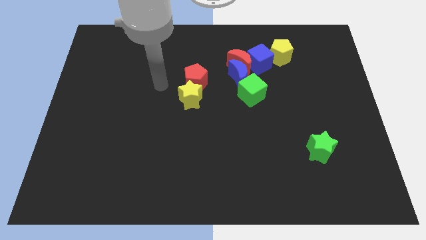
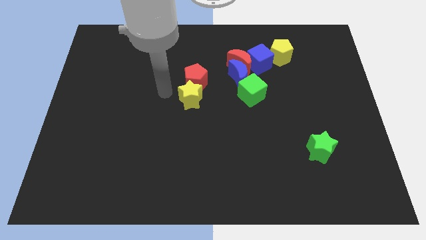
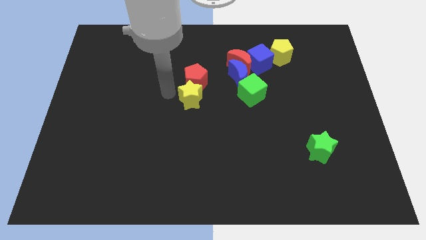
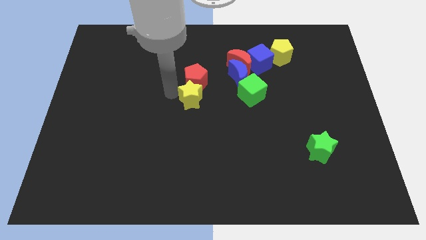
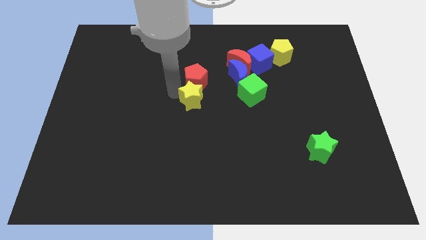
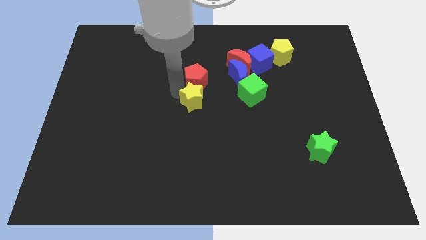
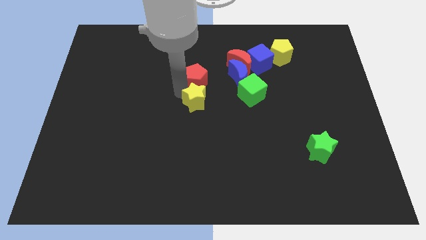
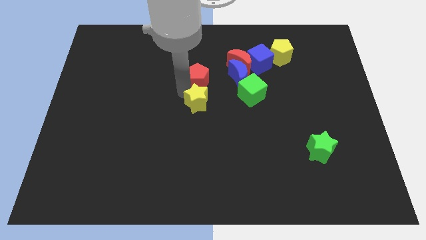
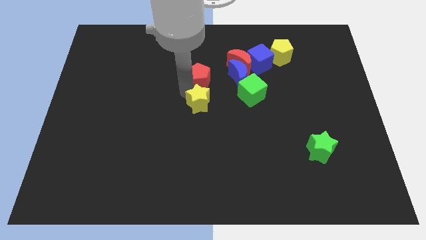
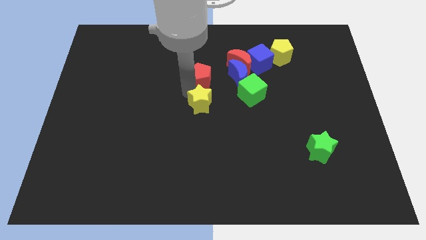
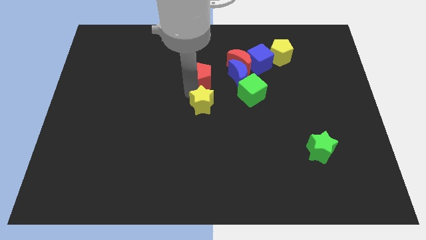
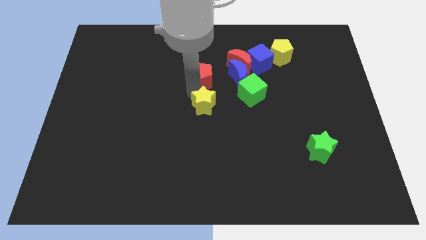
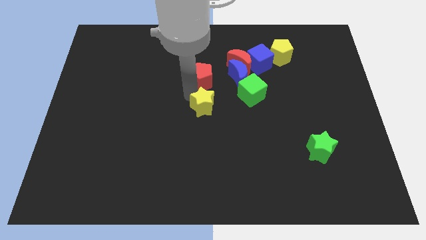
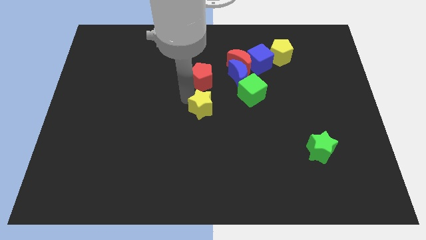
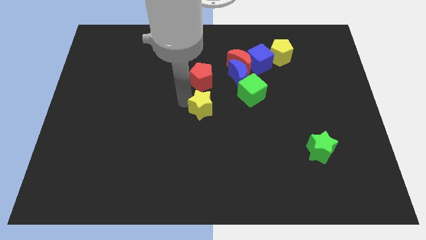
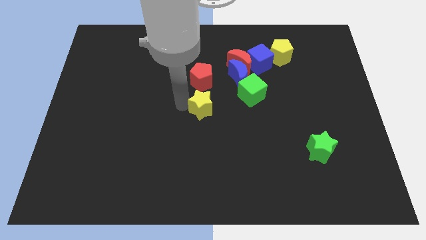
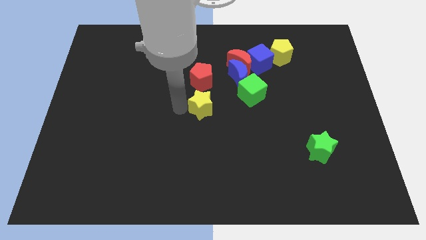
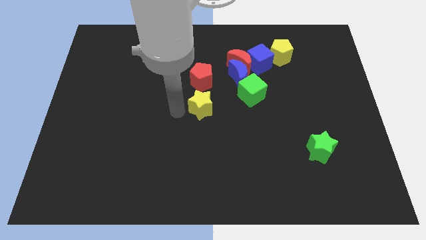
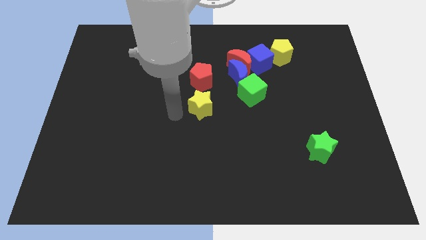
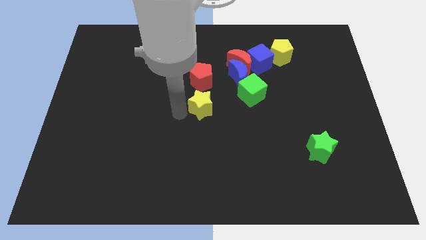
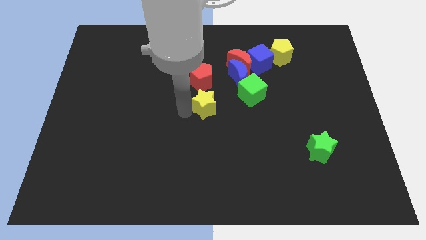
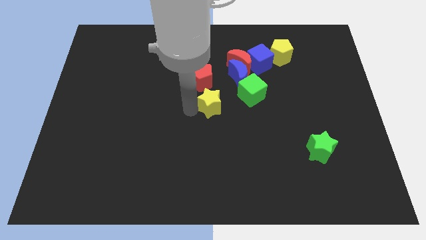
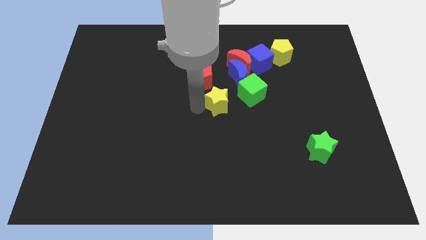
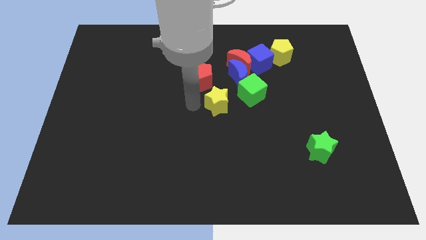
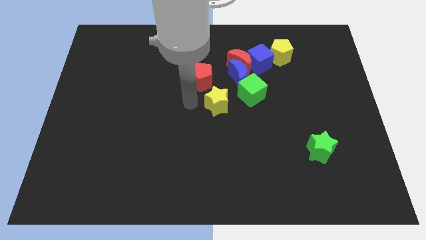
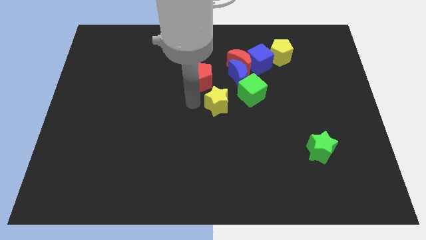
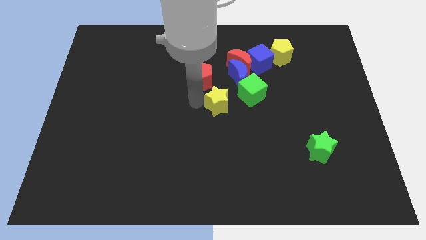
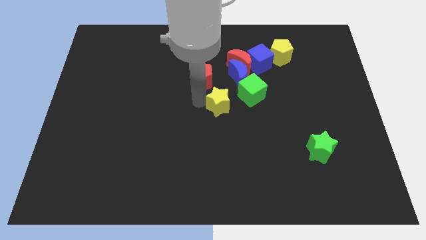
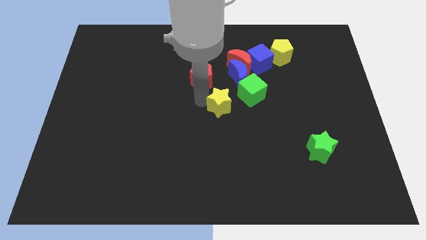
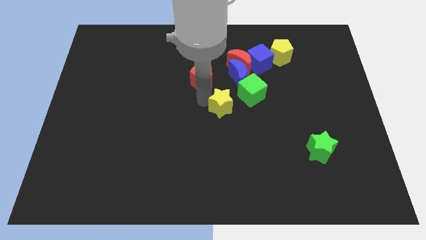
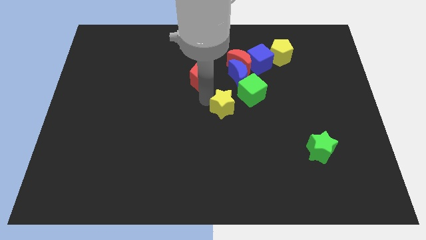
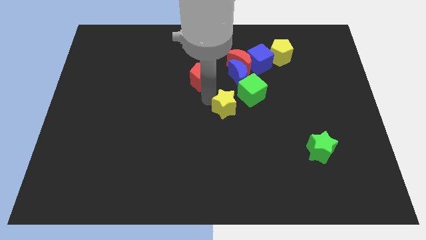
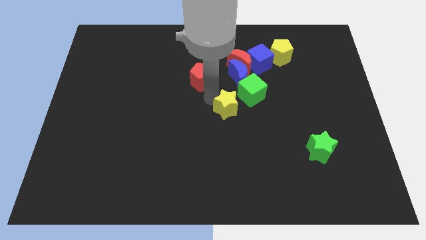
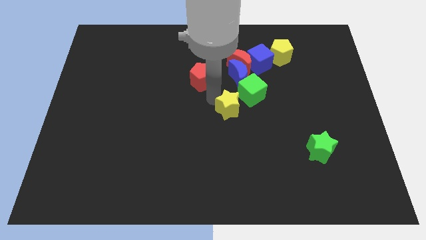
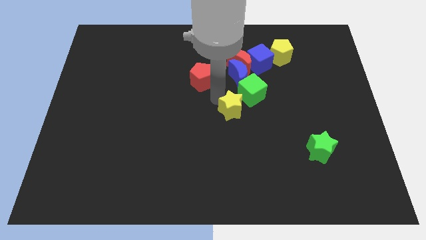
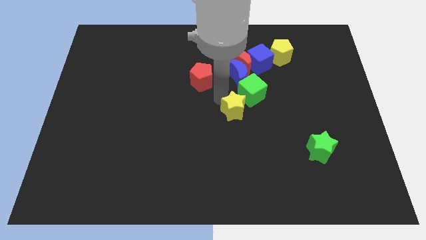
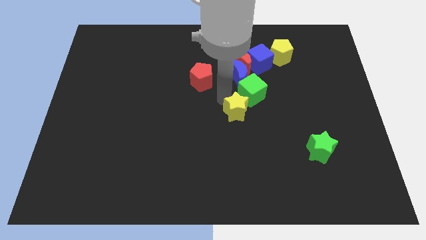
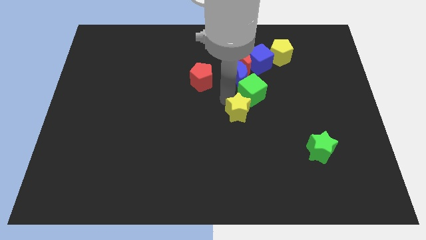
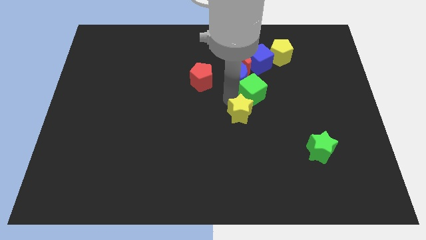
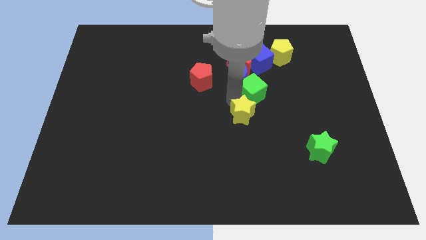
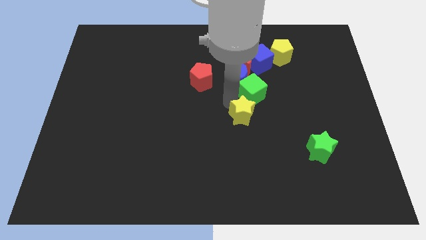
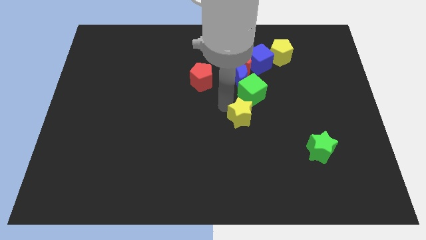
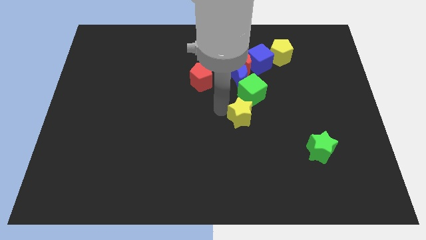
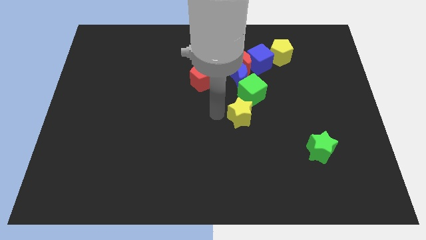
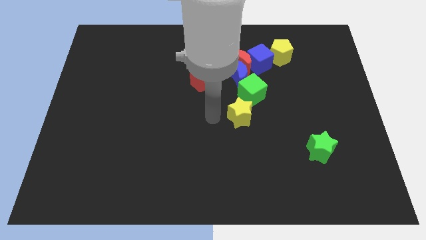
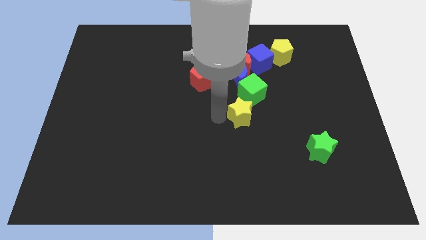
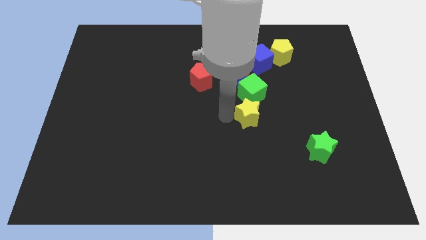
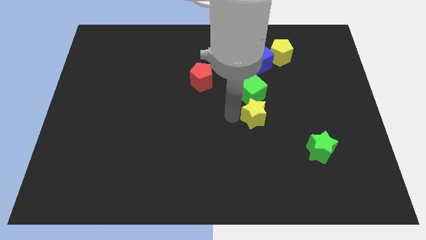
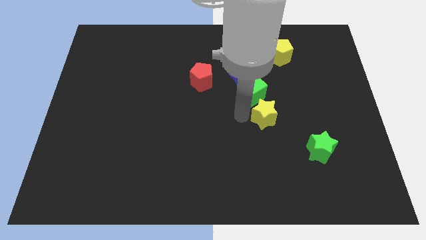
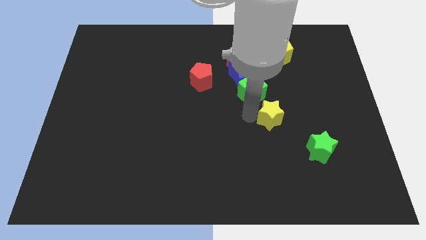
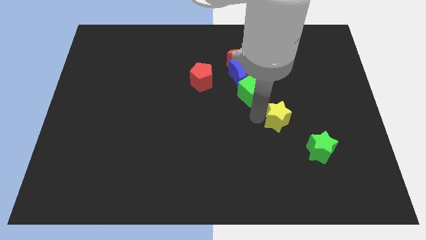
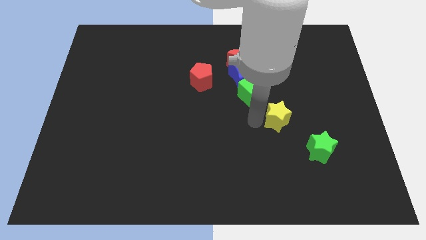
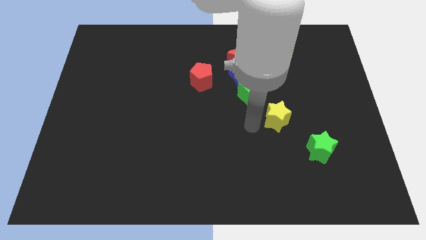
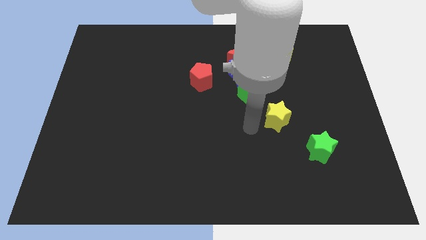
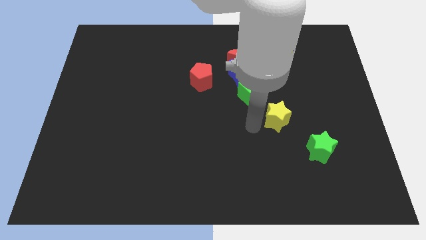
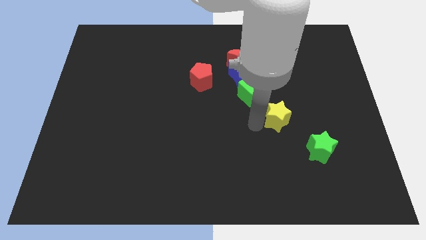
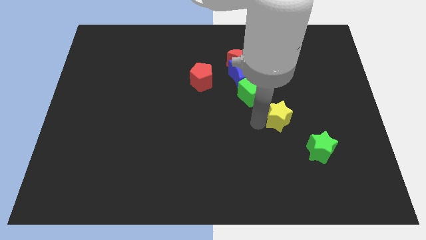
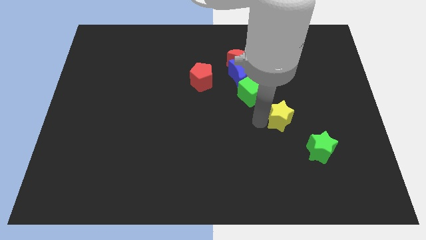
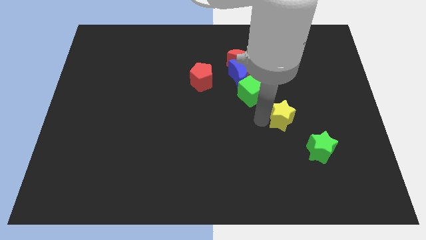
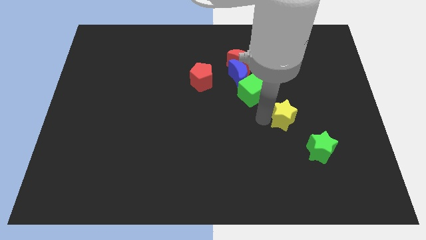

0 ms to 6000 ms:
move the yellow star right

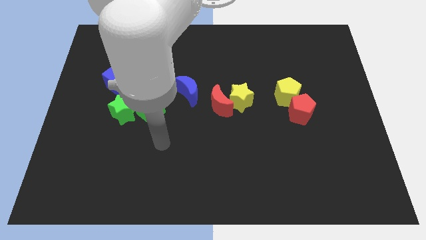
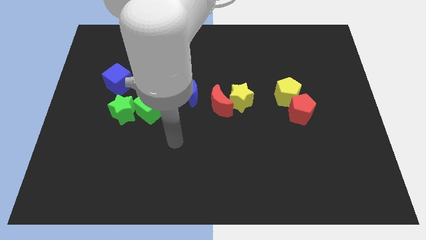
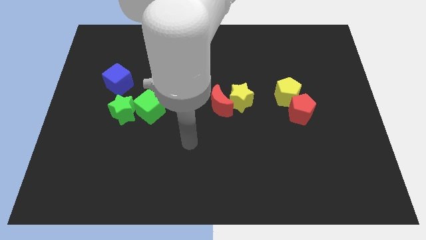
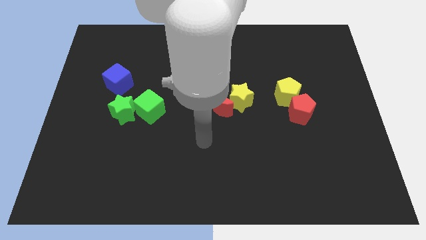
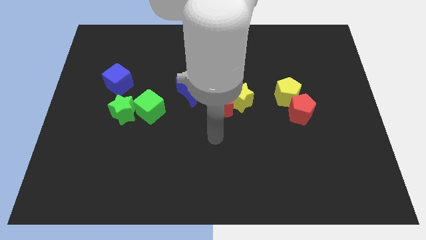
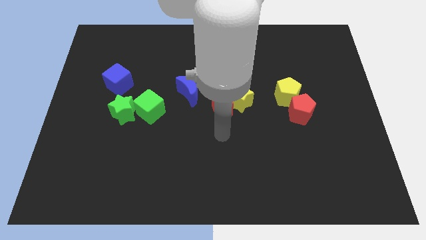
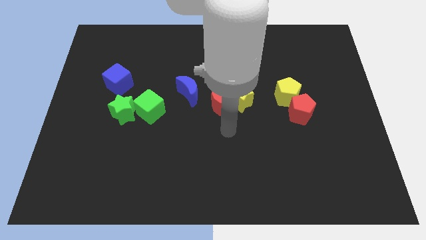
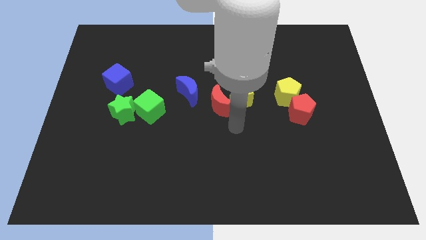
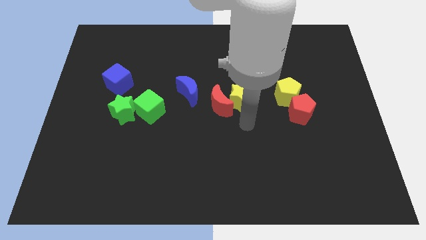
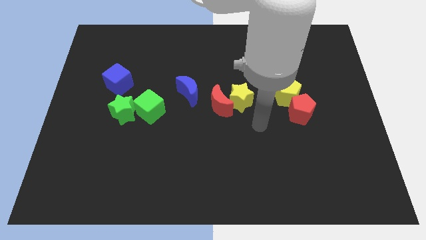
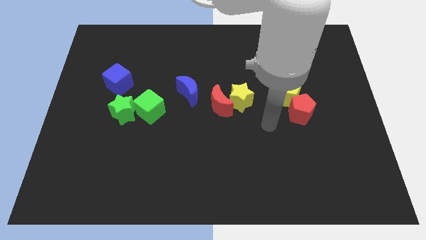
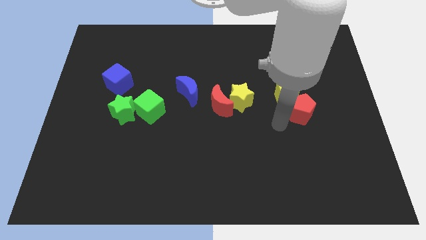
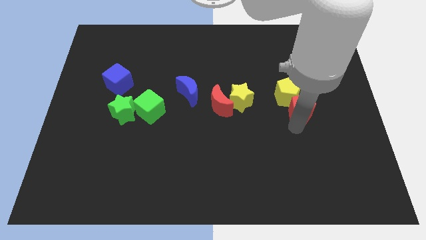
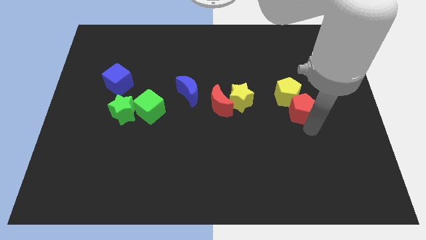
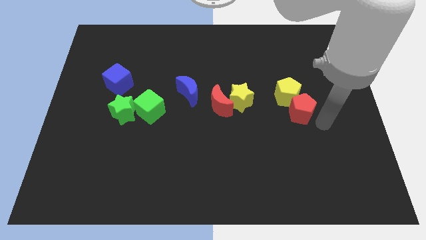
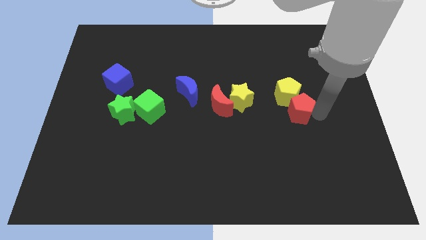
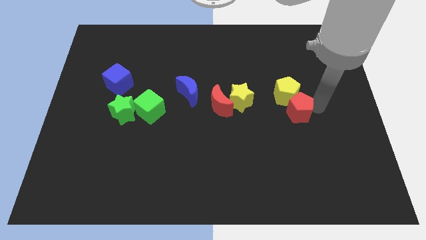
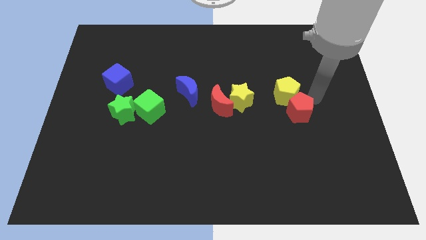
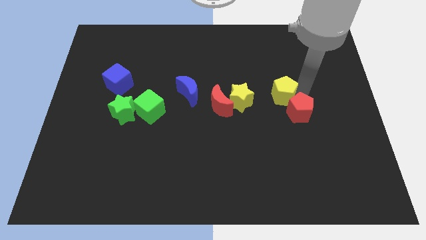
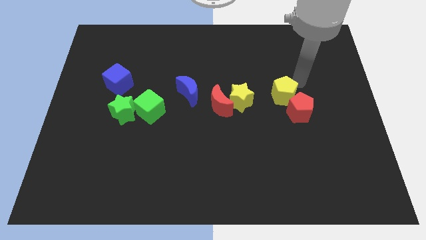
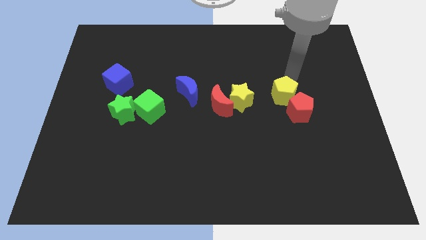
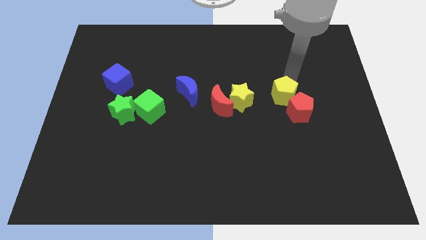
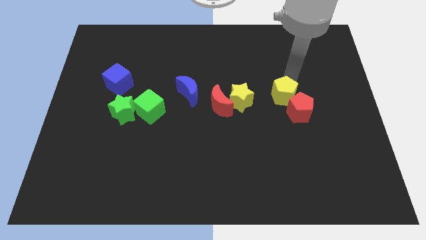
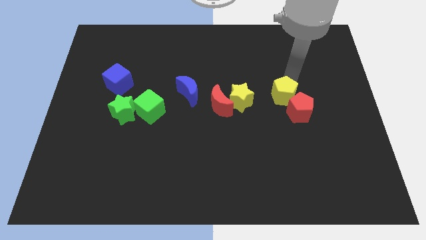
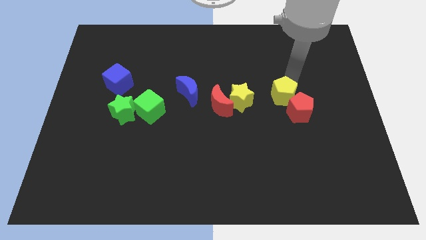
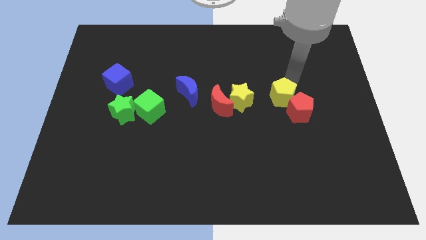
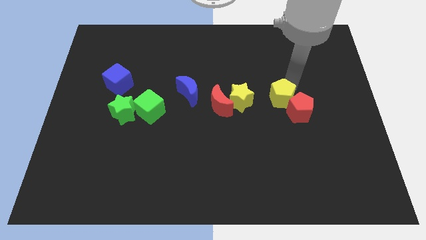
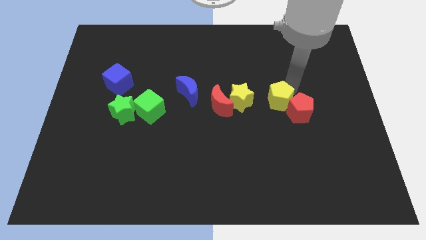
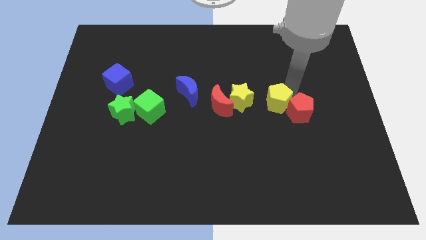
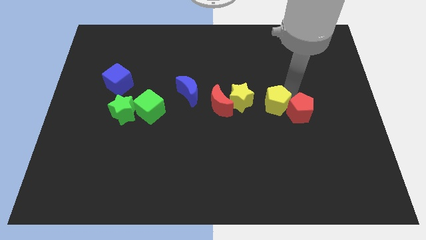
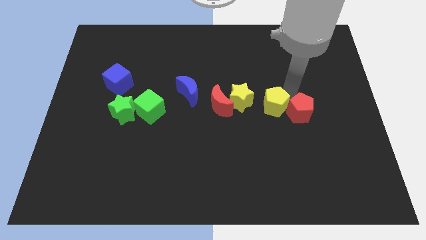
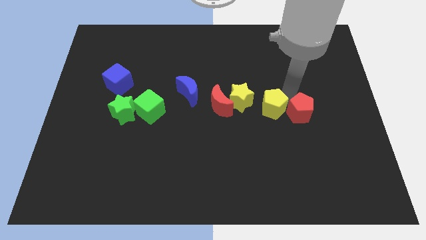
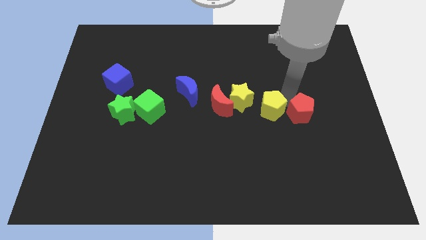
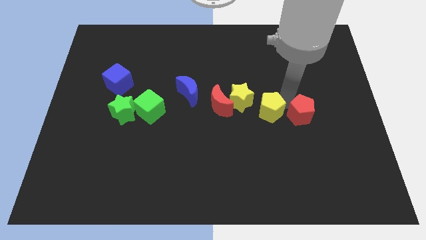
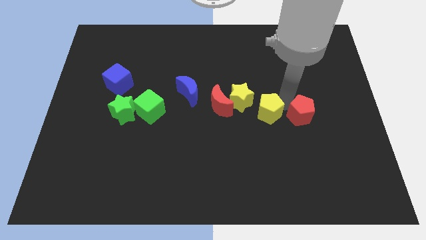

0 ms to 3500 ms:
slide the yellow pentagon diagonally downwards and to the left somewhat
